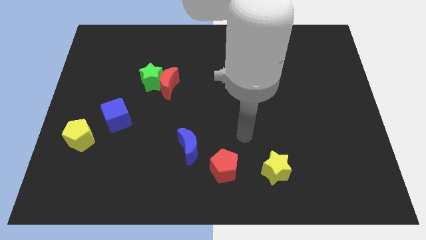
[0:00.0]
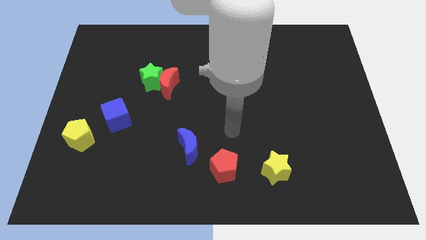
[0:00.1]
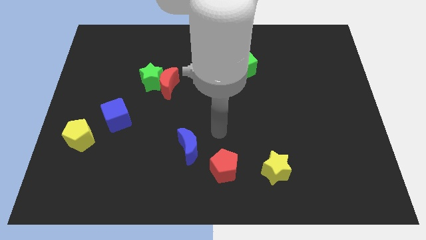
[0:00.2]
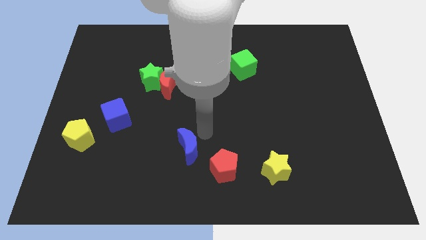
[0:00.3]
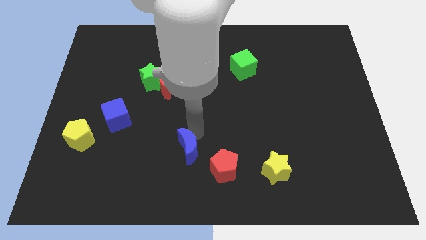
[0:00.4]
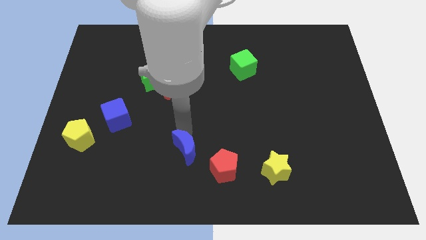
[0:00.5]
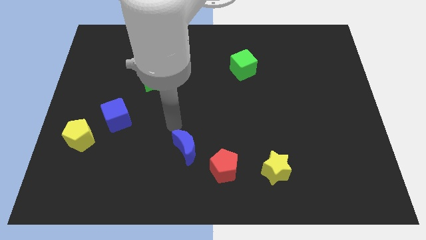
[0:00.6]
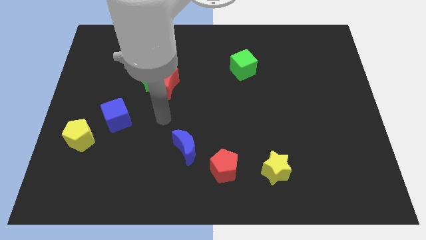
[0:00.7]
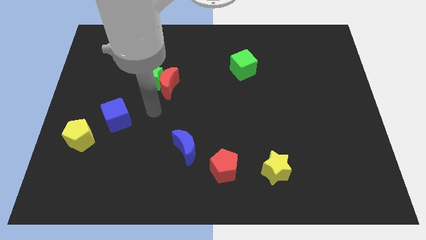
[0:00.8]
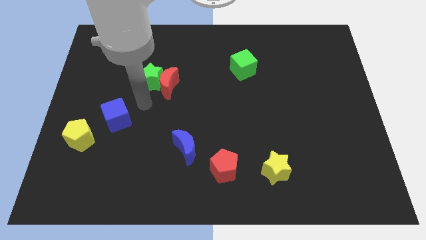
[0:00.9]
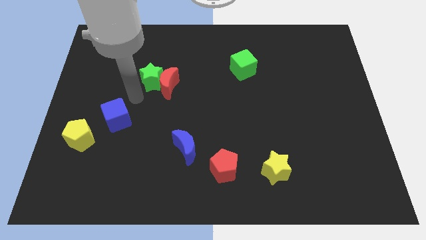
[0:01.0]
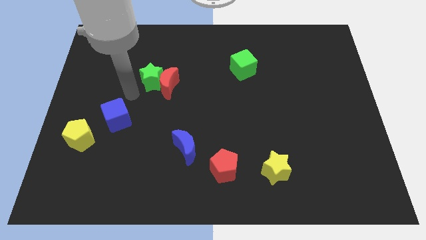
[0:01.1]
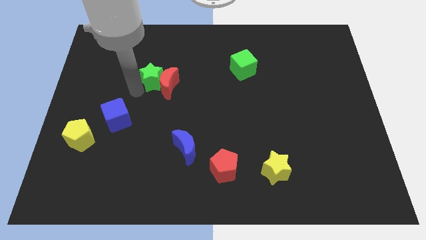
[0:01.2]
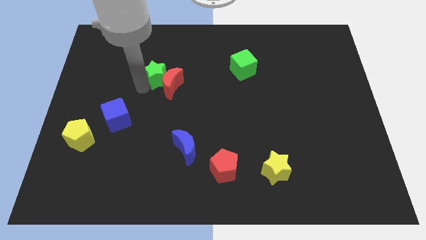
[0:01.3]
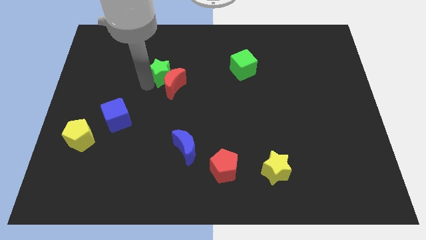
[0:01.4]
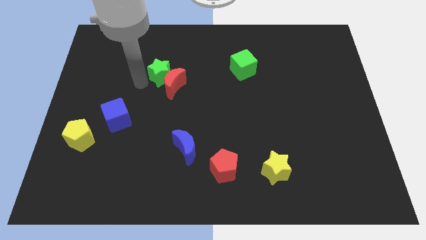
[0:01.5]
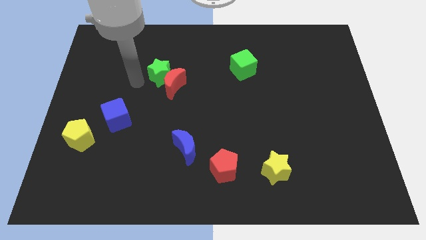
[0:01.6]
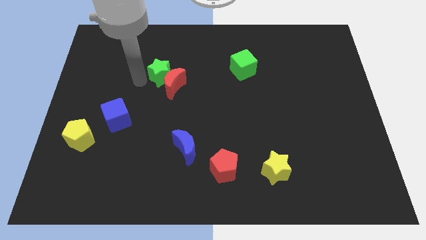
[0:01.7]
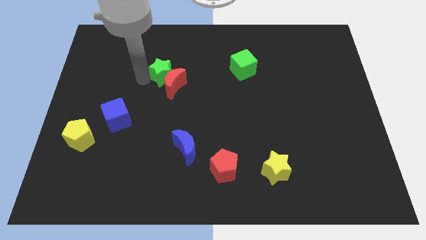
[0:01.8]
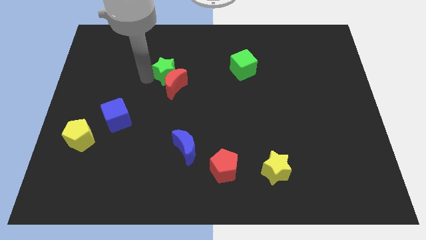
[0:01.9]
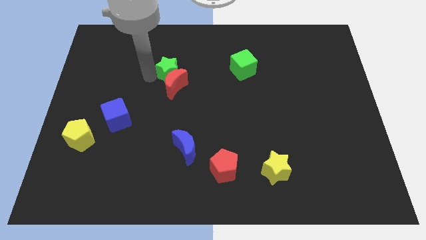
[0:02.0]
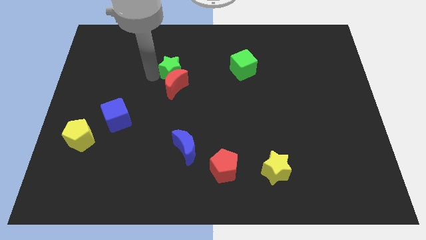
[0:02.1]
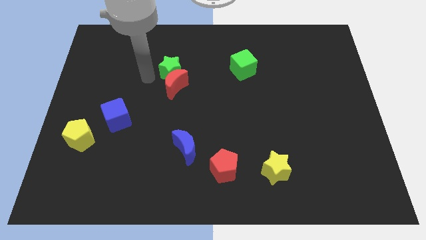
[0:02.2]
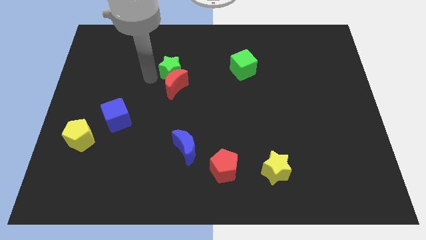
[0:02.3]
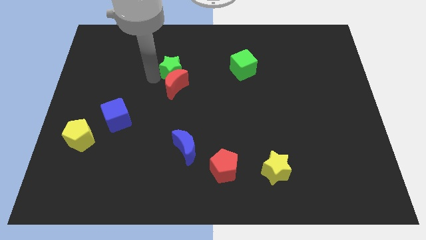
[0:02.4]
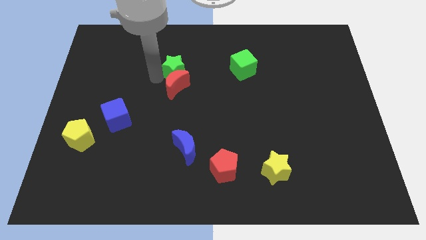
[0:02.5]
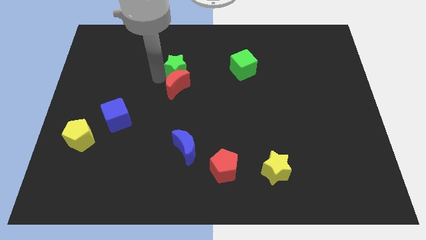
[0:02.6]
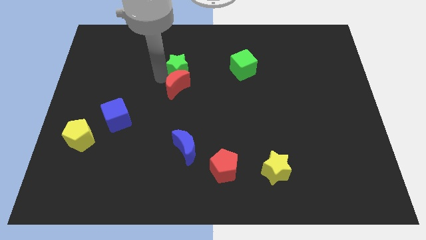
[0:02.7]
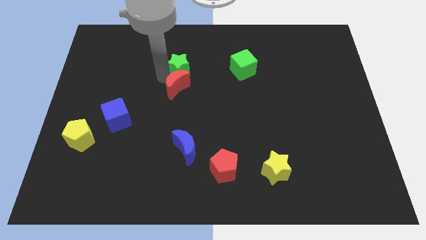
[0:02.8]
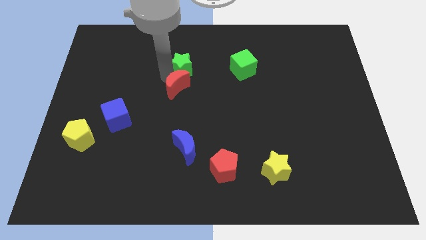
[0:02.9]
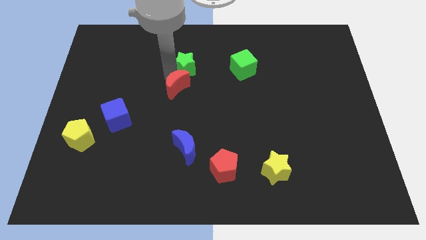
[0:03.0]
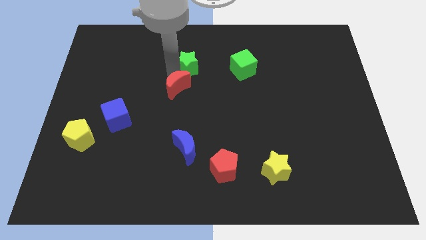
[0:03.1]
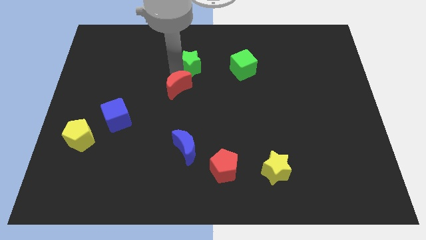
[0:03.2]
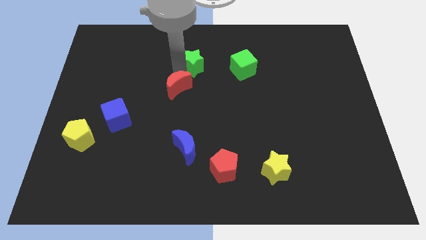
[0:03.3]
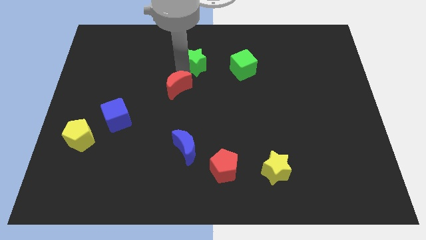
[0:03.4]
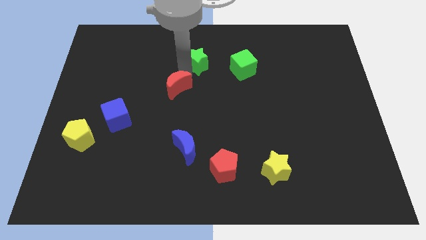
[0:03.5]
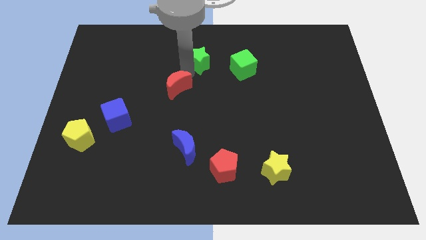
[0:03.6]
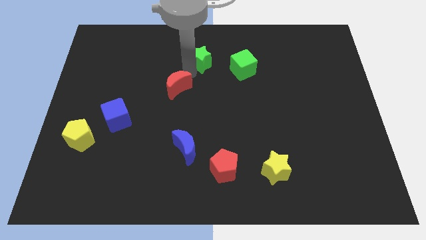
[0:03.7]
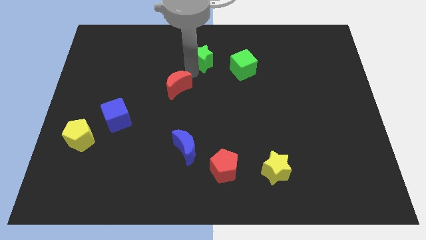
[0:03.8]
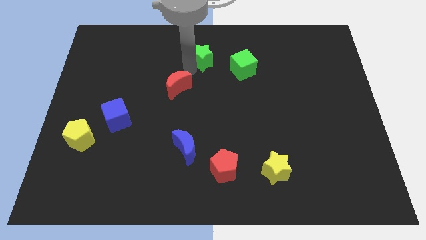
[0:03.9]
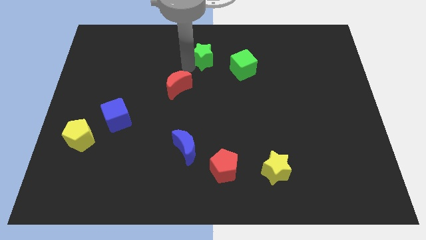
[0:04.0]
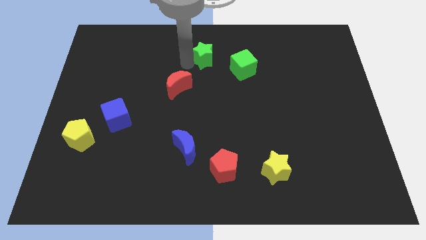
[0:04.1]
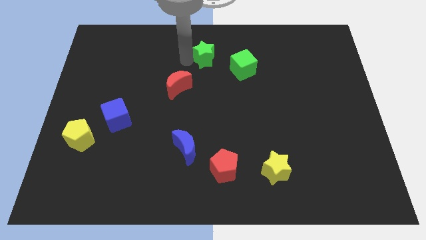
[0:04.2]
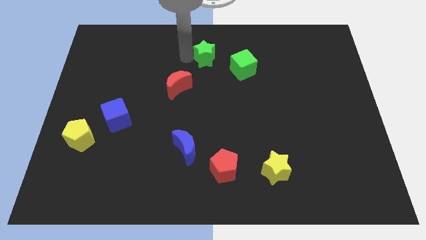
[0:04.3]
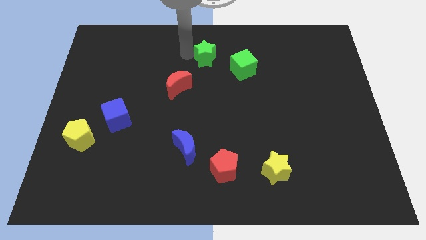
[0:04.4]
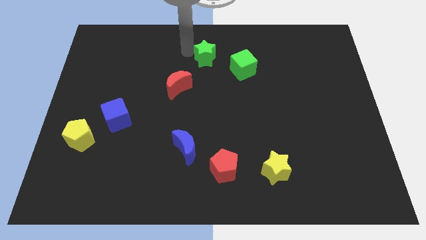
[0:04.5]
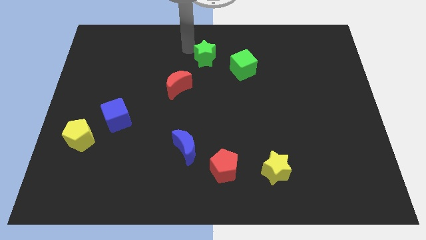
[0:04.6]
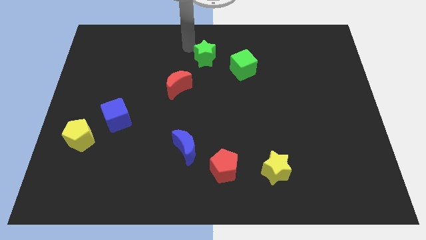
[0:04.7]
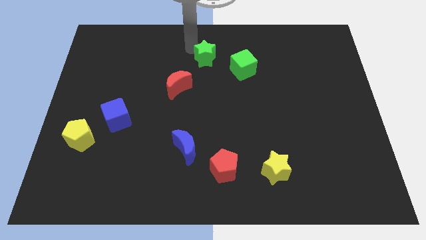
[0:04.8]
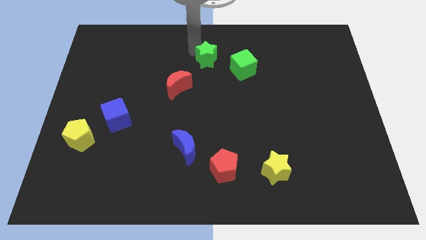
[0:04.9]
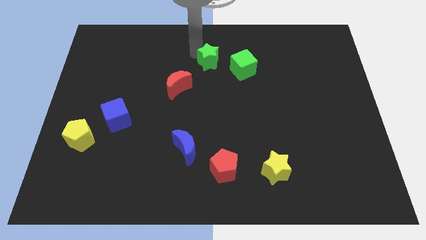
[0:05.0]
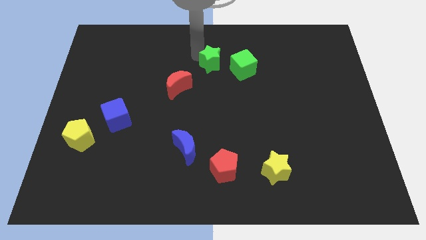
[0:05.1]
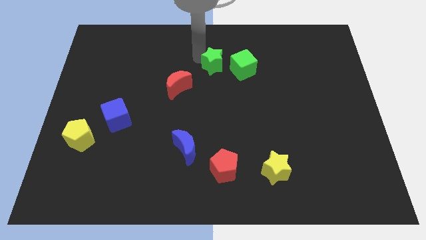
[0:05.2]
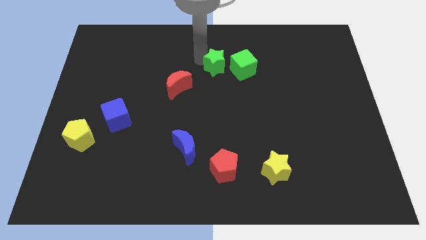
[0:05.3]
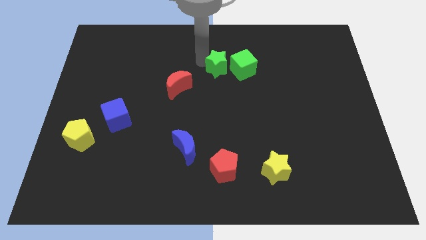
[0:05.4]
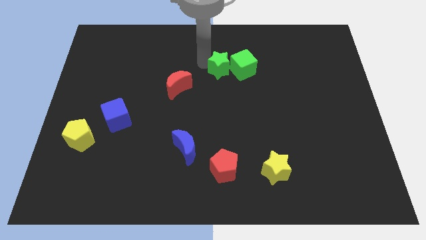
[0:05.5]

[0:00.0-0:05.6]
put the green star to the green cube

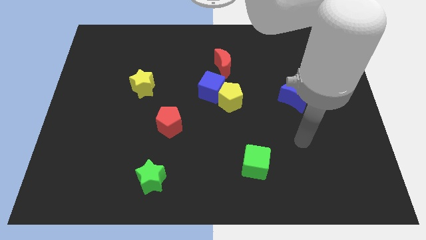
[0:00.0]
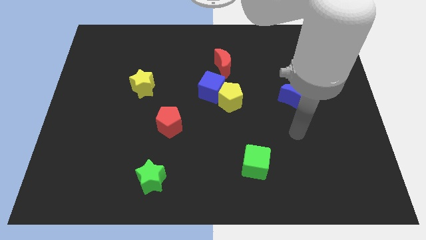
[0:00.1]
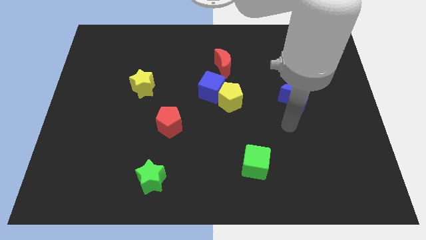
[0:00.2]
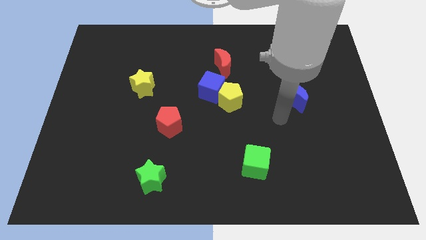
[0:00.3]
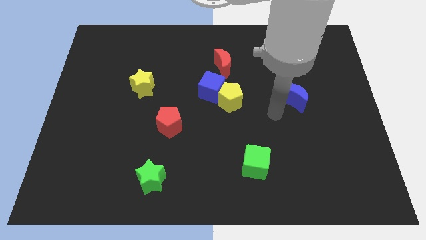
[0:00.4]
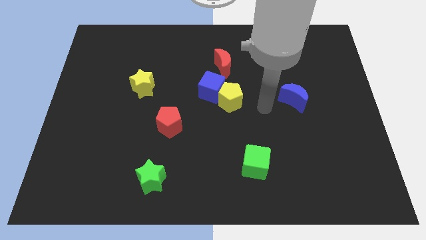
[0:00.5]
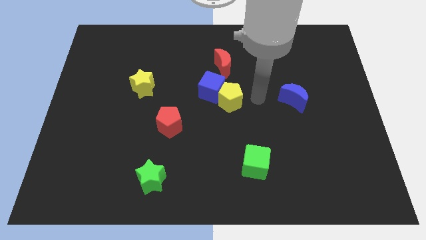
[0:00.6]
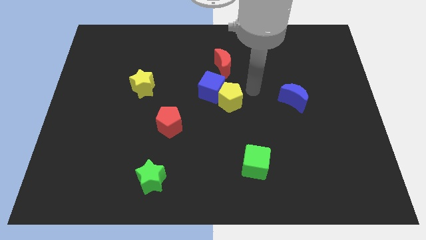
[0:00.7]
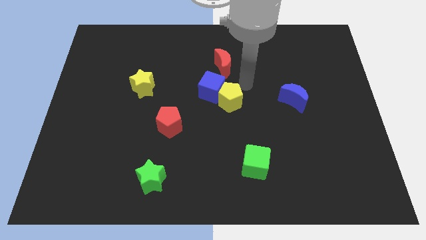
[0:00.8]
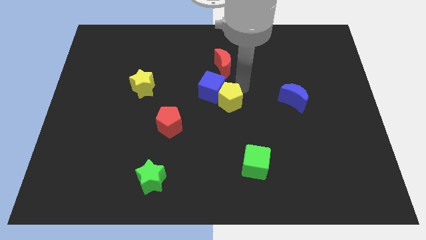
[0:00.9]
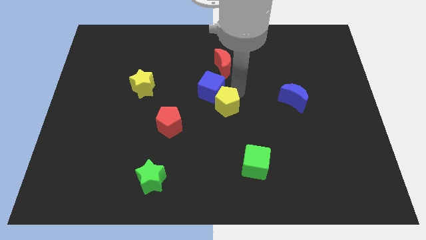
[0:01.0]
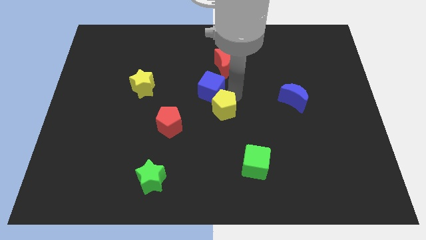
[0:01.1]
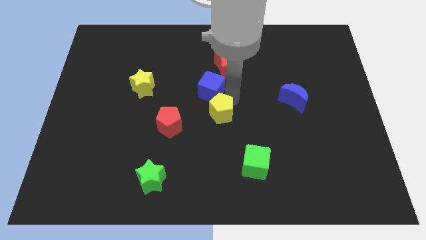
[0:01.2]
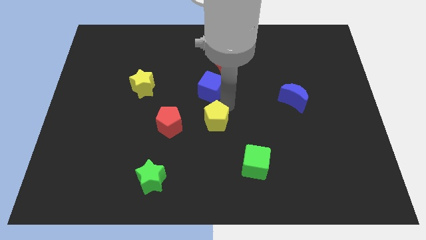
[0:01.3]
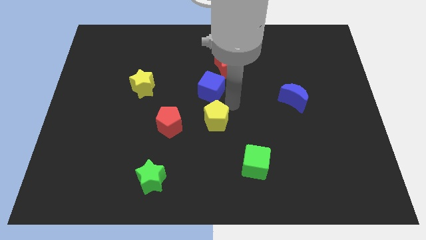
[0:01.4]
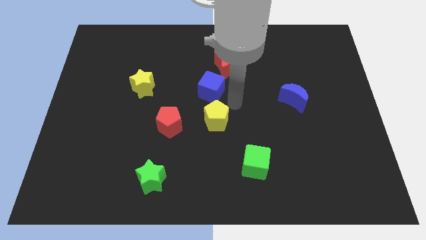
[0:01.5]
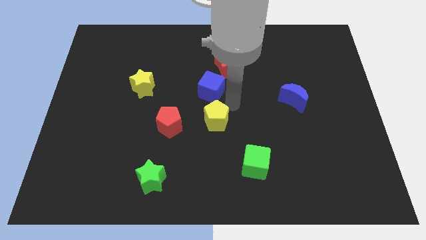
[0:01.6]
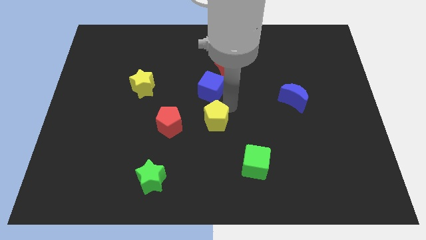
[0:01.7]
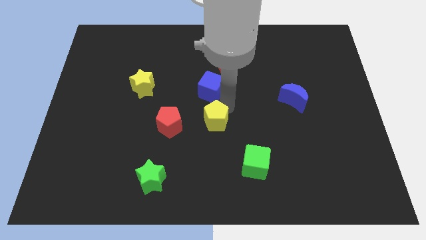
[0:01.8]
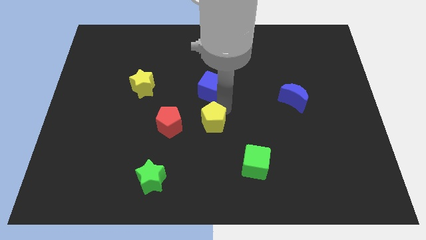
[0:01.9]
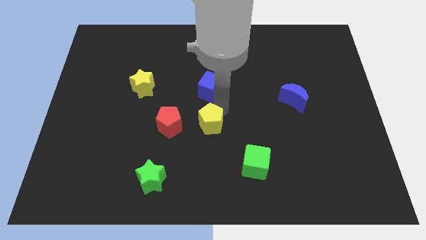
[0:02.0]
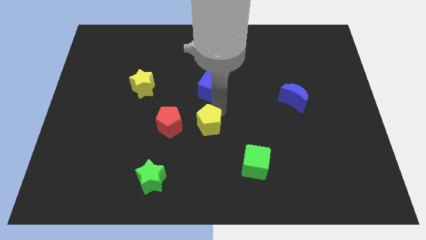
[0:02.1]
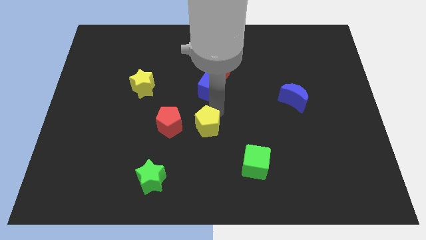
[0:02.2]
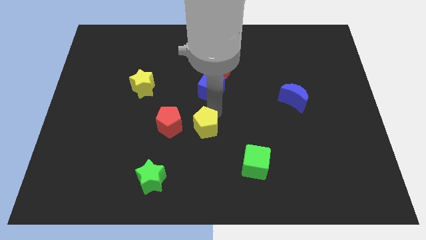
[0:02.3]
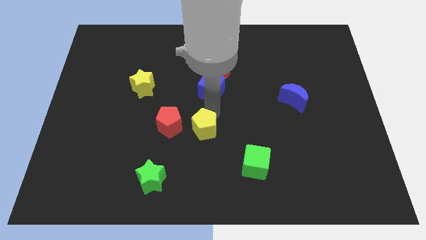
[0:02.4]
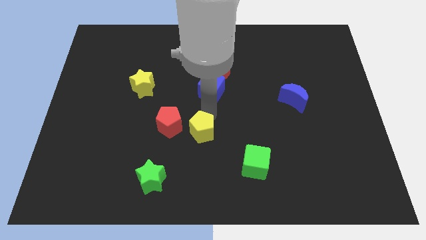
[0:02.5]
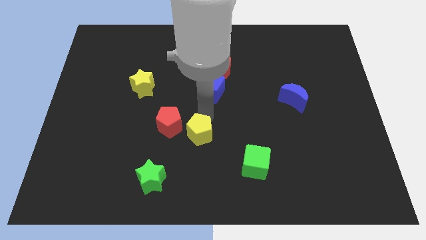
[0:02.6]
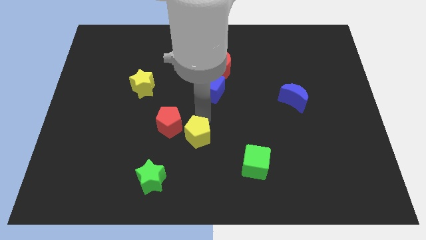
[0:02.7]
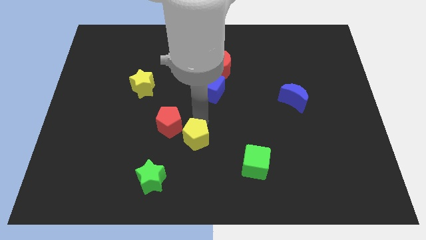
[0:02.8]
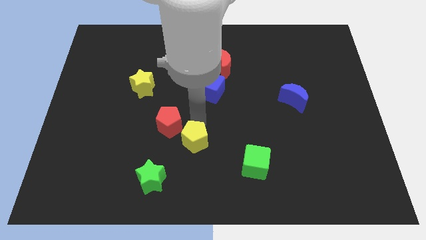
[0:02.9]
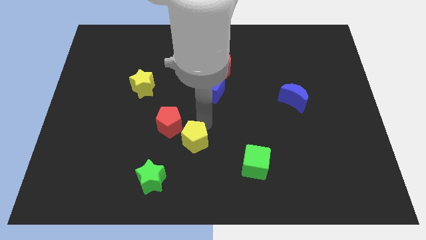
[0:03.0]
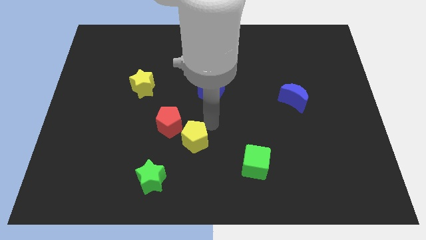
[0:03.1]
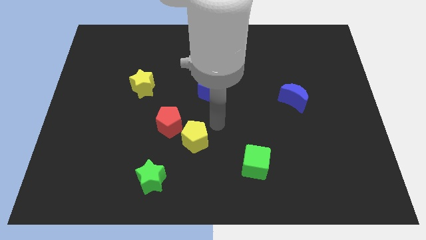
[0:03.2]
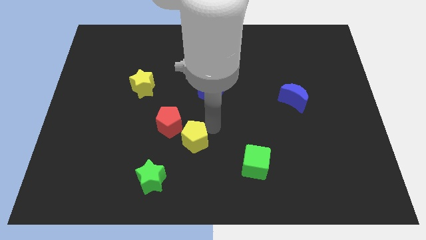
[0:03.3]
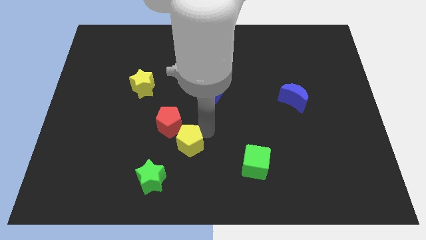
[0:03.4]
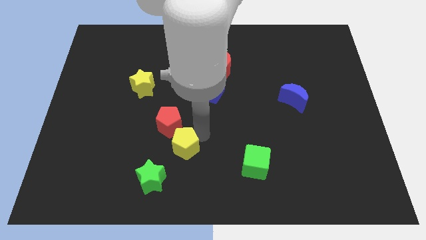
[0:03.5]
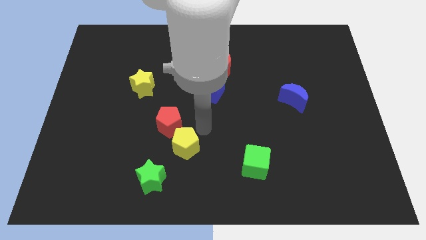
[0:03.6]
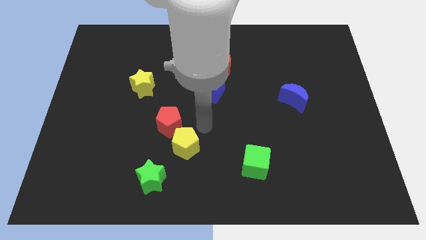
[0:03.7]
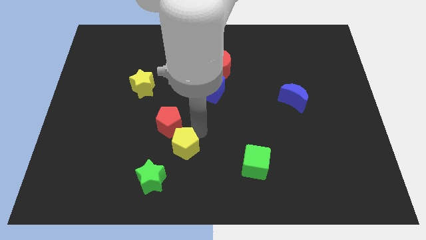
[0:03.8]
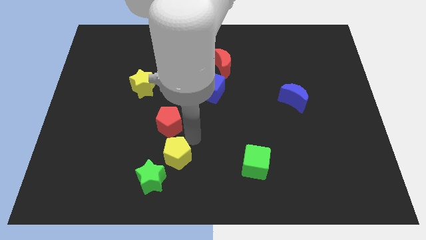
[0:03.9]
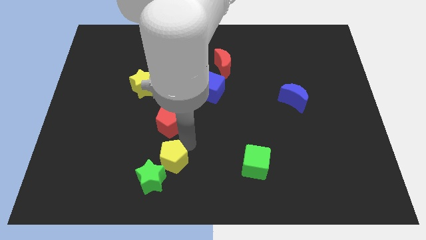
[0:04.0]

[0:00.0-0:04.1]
put the yellow pentagon towards the green star
